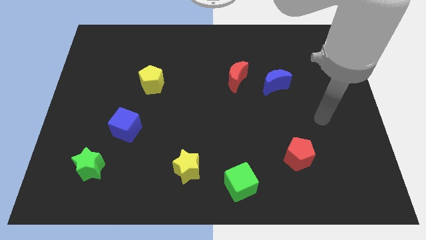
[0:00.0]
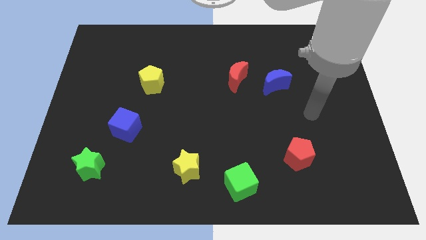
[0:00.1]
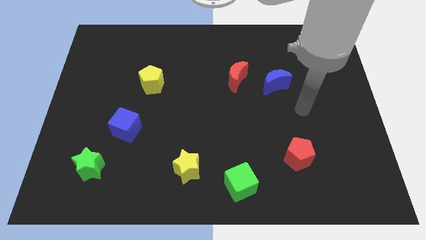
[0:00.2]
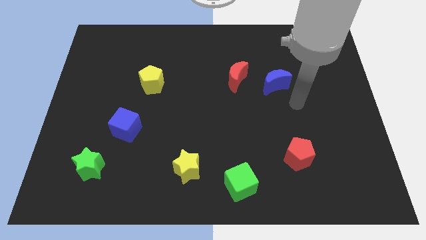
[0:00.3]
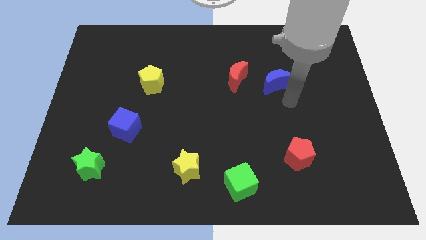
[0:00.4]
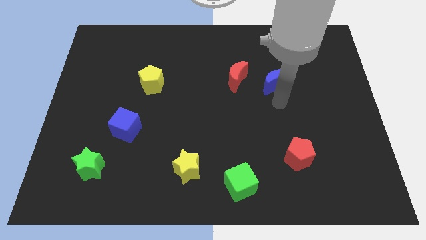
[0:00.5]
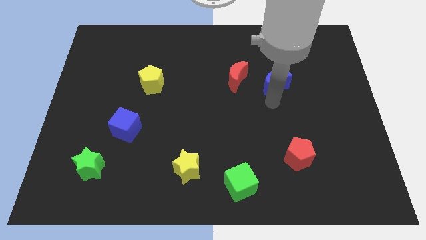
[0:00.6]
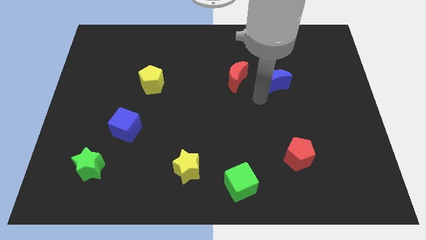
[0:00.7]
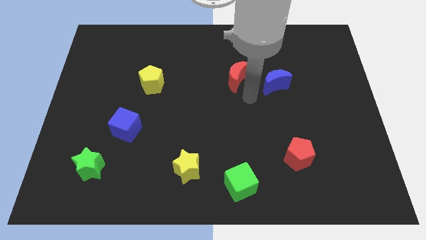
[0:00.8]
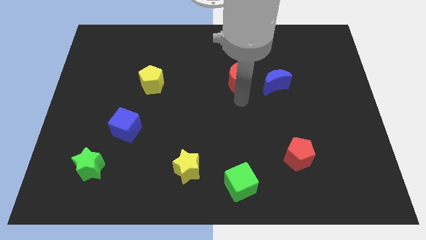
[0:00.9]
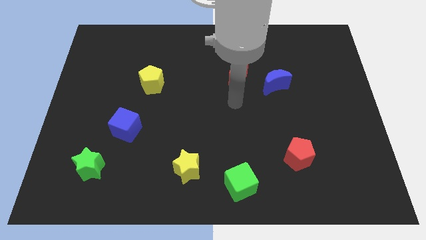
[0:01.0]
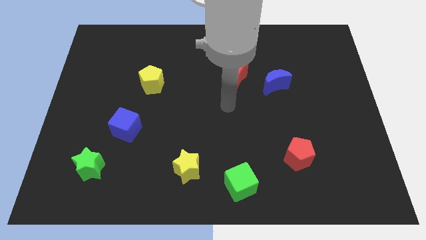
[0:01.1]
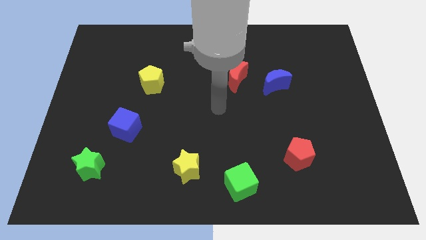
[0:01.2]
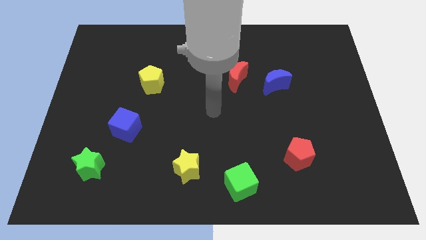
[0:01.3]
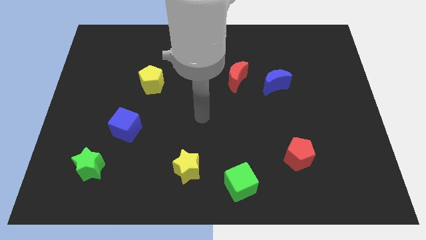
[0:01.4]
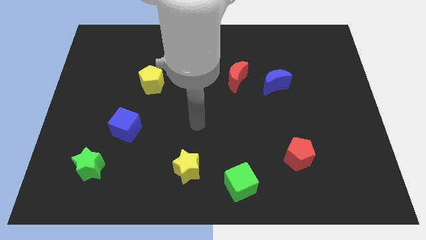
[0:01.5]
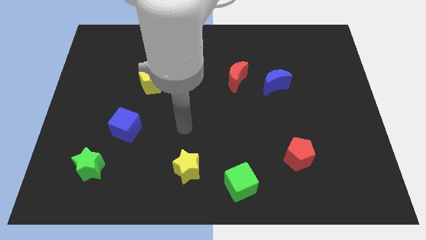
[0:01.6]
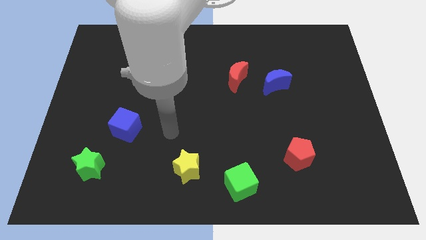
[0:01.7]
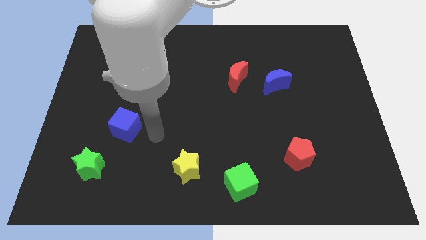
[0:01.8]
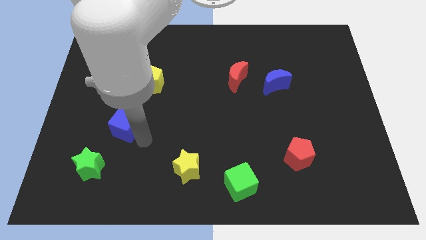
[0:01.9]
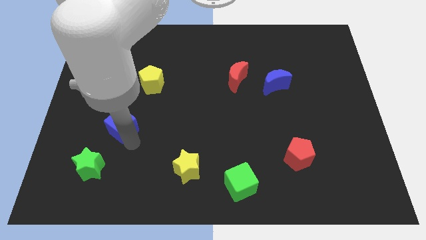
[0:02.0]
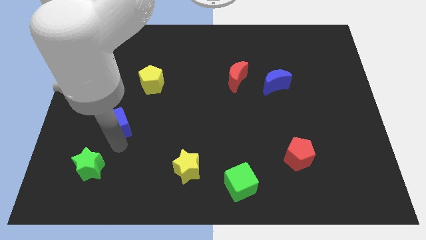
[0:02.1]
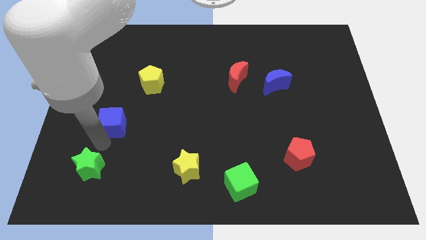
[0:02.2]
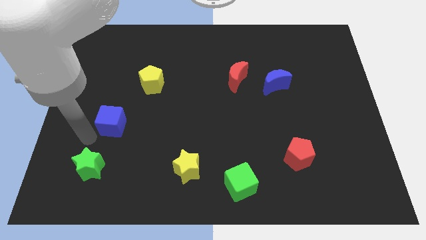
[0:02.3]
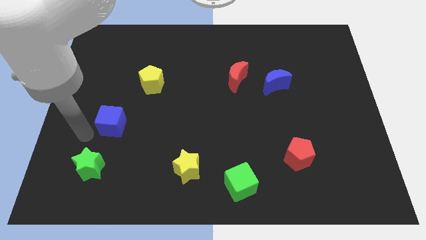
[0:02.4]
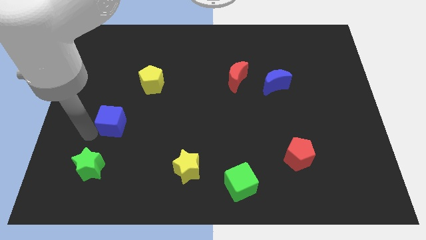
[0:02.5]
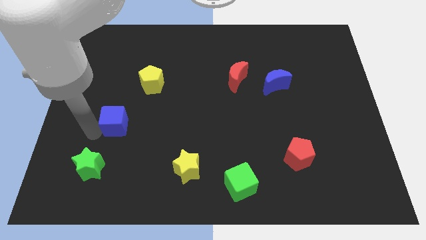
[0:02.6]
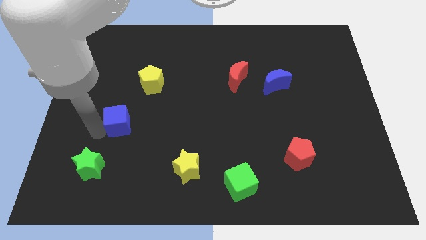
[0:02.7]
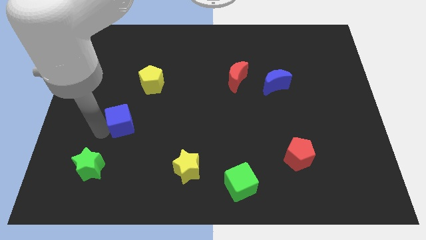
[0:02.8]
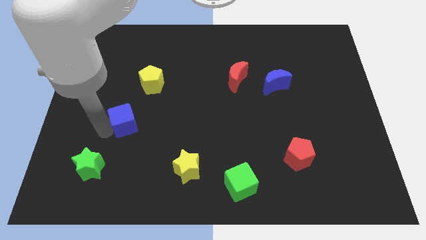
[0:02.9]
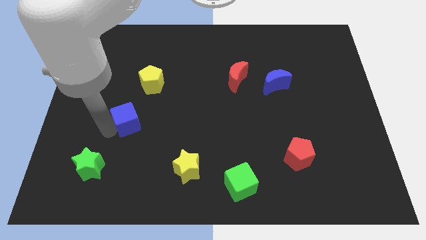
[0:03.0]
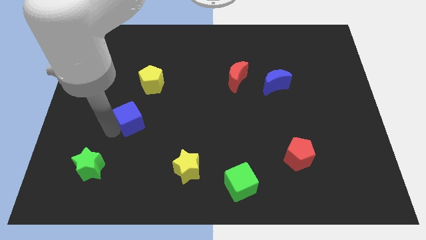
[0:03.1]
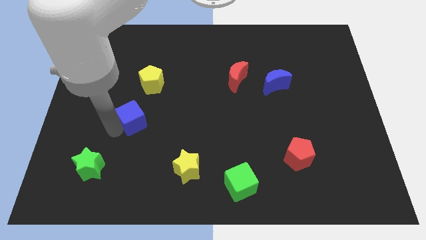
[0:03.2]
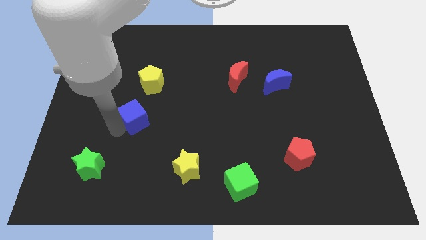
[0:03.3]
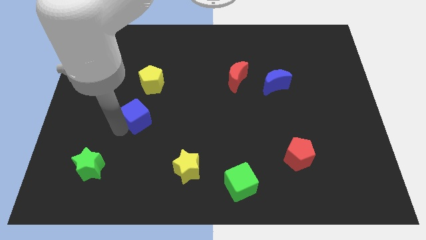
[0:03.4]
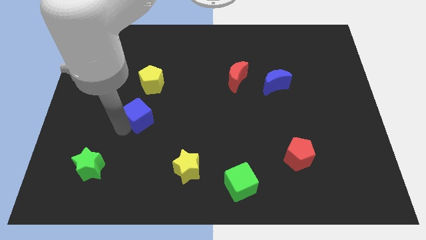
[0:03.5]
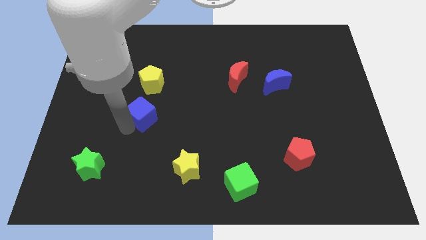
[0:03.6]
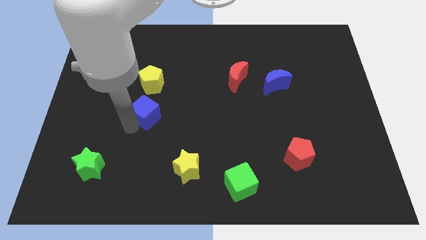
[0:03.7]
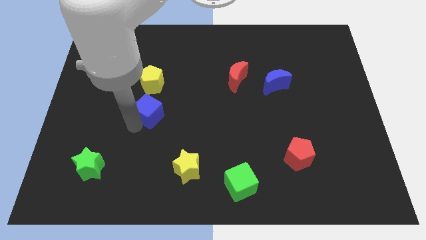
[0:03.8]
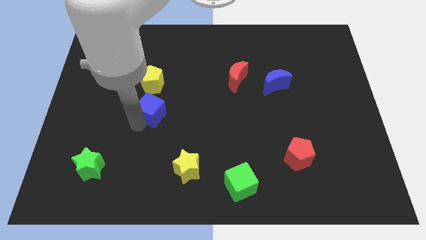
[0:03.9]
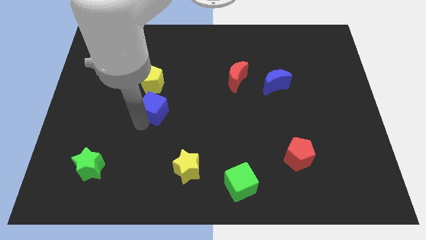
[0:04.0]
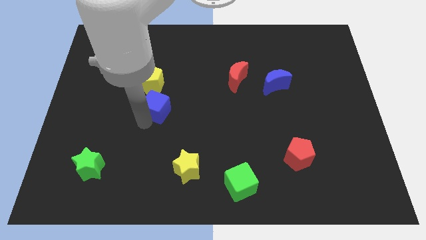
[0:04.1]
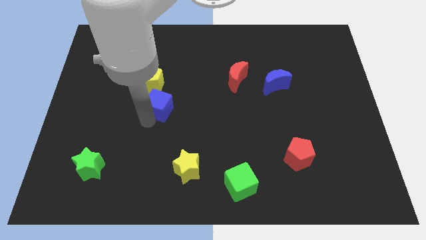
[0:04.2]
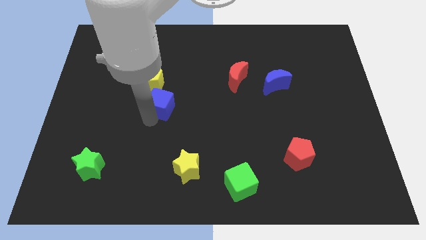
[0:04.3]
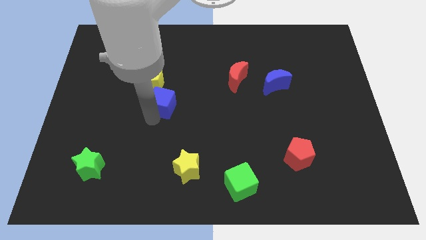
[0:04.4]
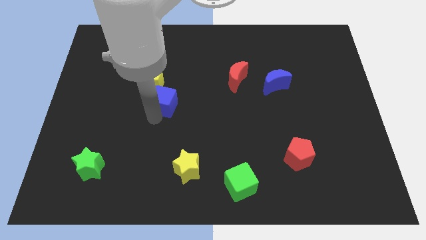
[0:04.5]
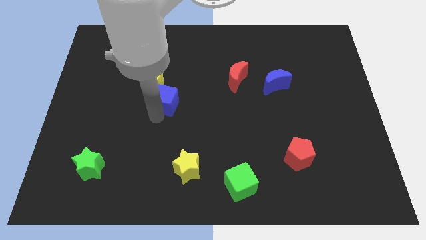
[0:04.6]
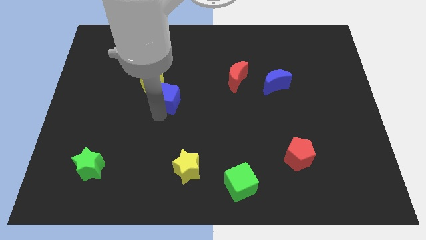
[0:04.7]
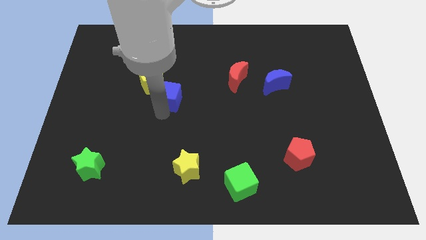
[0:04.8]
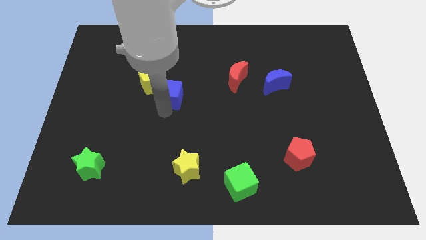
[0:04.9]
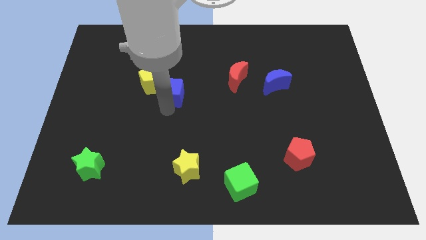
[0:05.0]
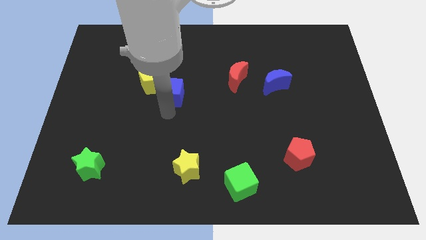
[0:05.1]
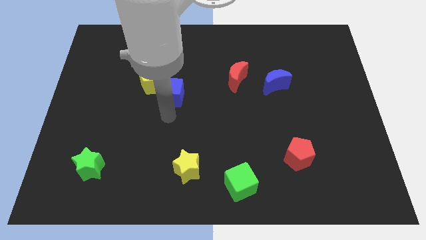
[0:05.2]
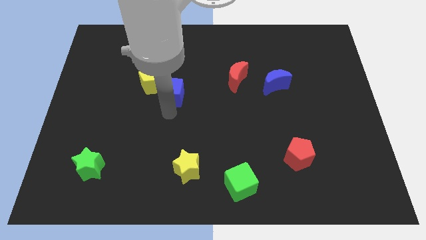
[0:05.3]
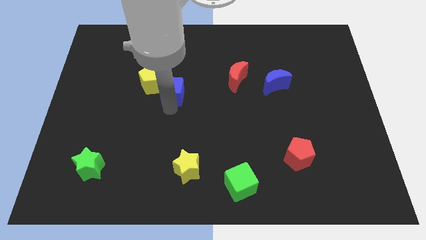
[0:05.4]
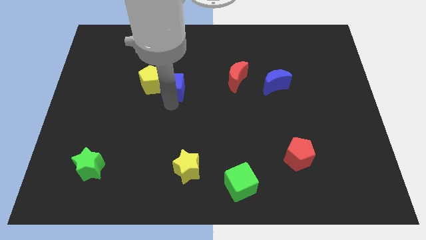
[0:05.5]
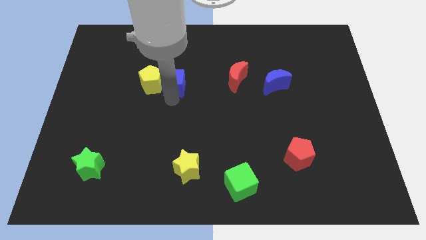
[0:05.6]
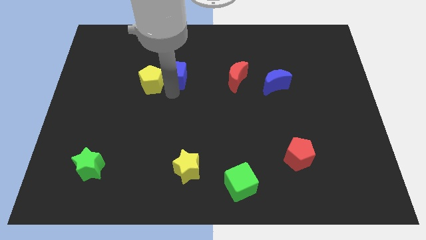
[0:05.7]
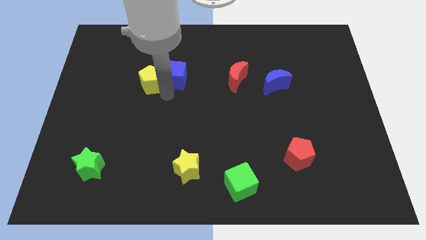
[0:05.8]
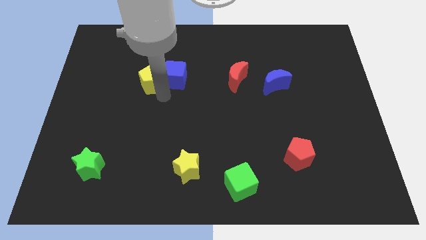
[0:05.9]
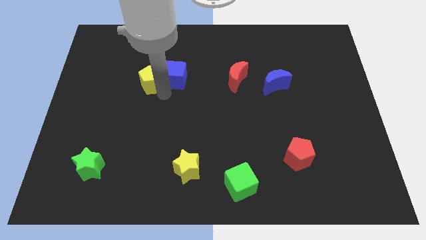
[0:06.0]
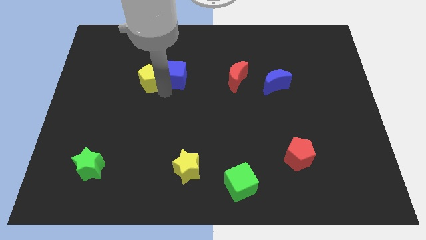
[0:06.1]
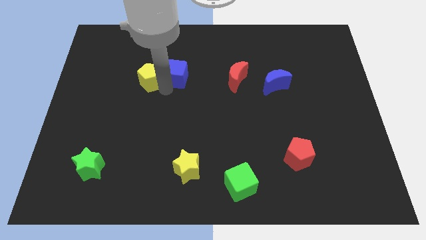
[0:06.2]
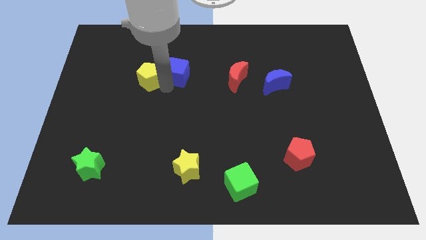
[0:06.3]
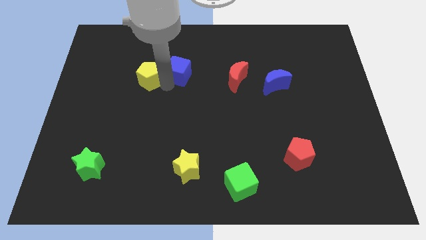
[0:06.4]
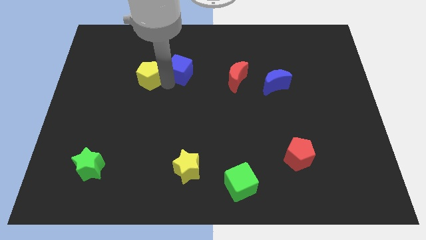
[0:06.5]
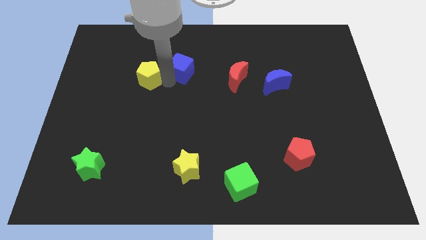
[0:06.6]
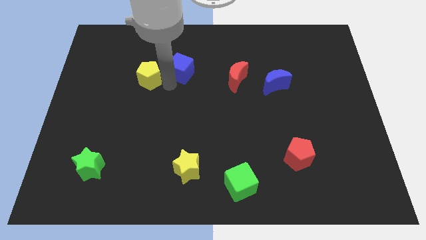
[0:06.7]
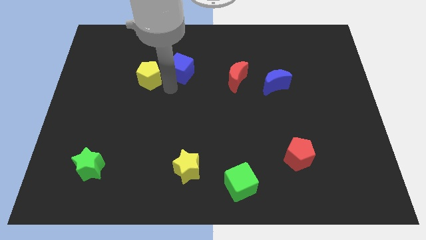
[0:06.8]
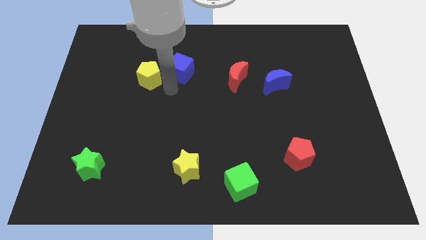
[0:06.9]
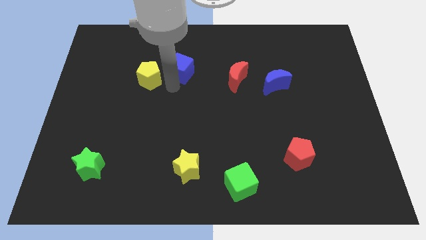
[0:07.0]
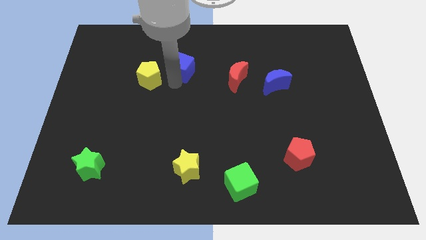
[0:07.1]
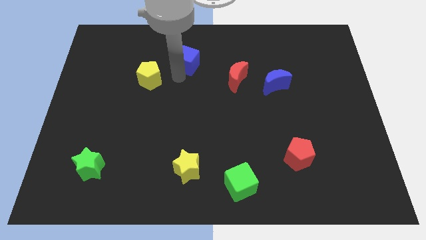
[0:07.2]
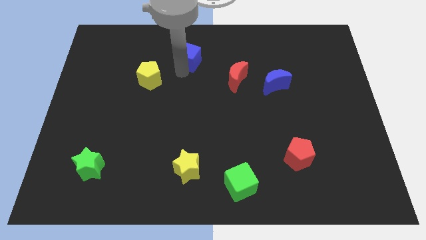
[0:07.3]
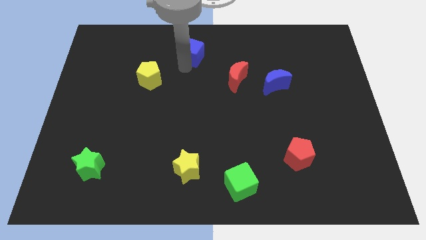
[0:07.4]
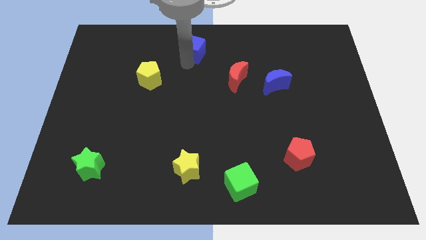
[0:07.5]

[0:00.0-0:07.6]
push the blue cube to the top
